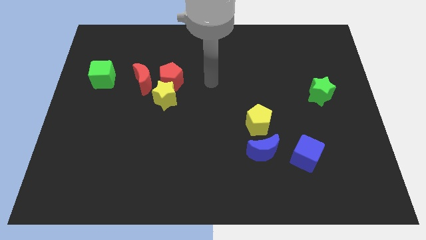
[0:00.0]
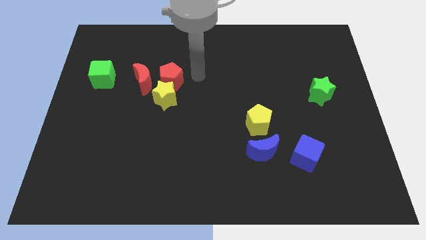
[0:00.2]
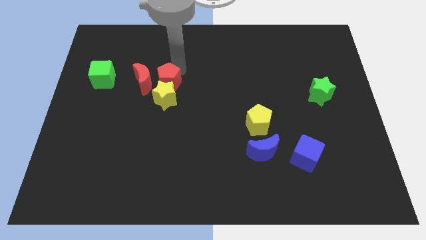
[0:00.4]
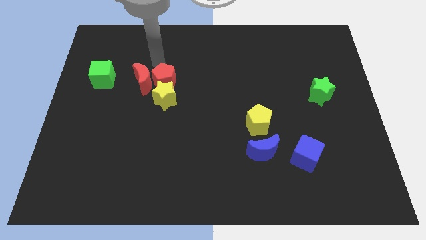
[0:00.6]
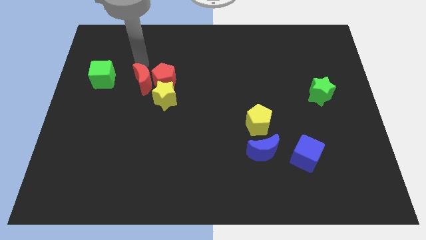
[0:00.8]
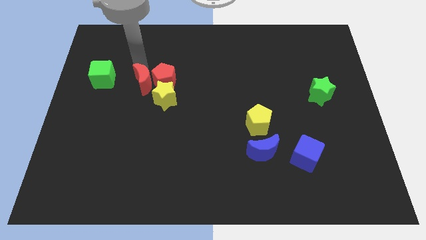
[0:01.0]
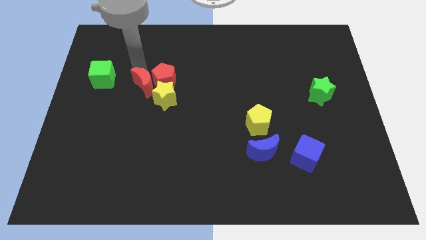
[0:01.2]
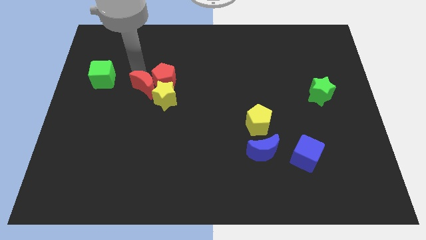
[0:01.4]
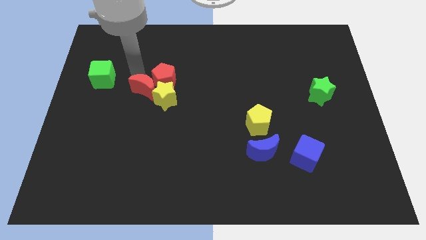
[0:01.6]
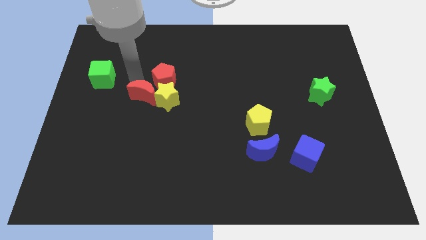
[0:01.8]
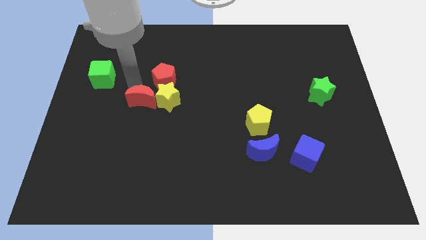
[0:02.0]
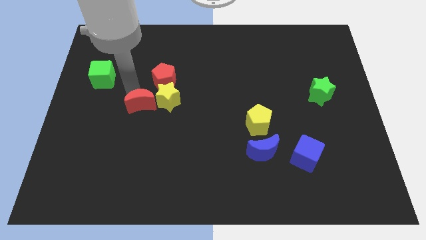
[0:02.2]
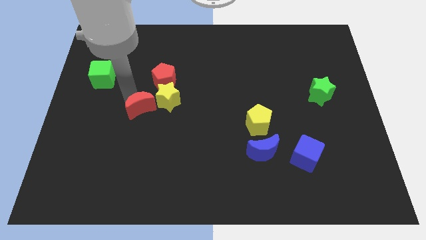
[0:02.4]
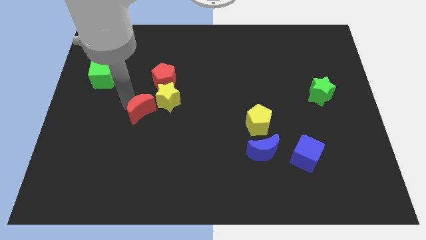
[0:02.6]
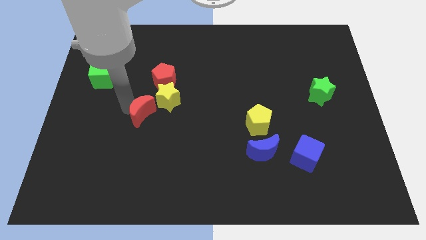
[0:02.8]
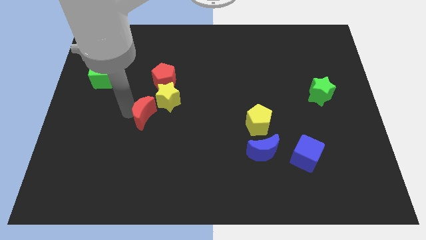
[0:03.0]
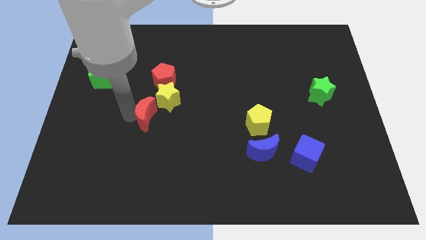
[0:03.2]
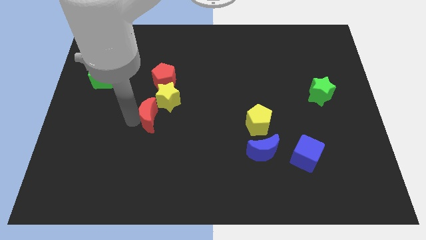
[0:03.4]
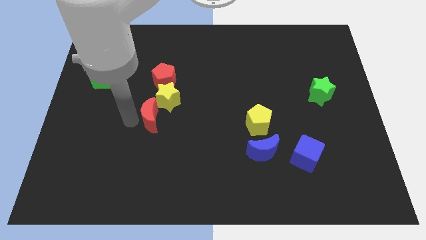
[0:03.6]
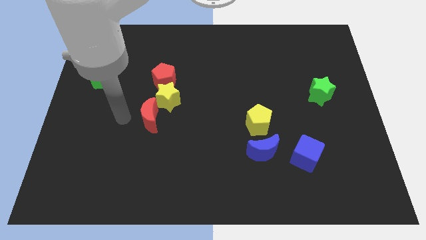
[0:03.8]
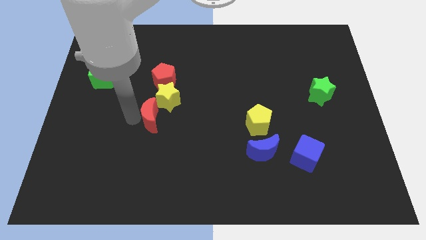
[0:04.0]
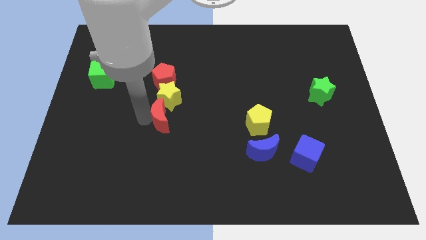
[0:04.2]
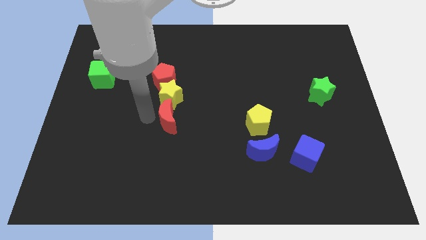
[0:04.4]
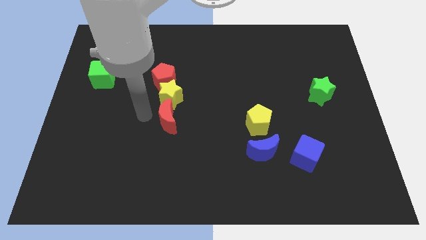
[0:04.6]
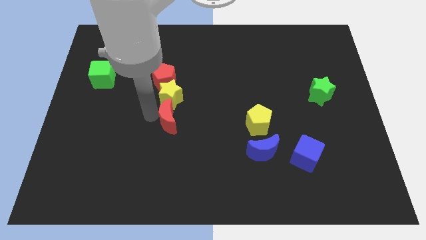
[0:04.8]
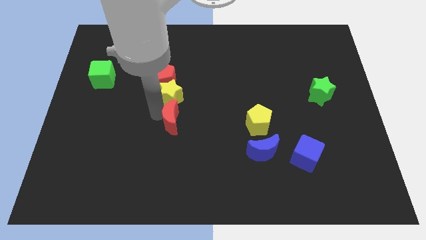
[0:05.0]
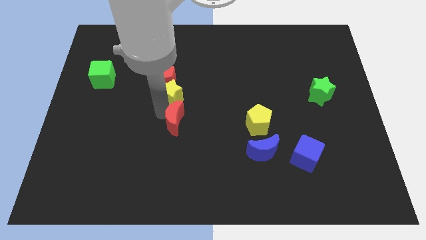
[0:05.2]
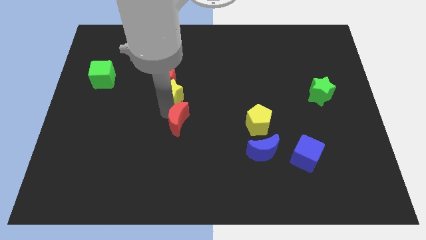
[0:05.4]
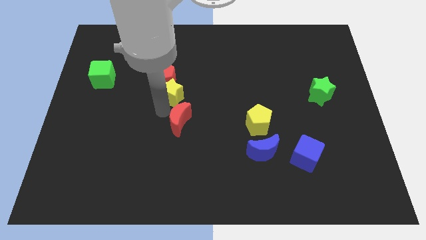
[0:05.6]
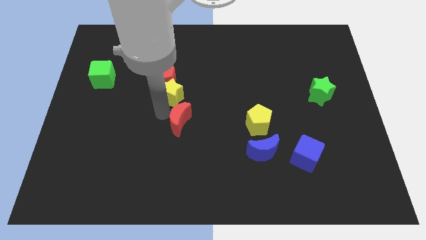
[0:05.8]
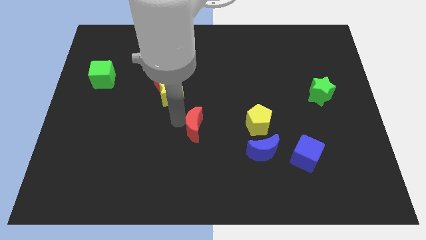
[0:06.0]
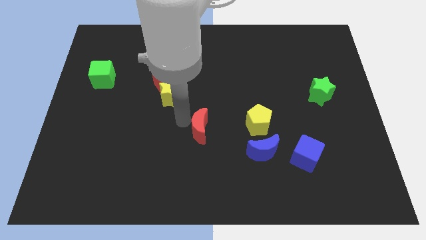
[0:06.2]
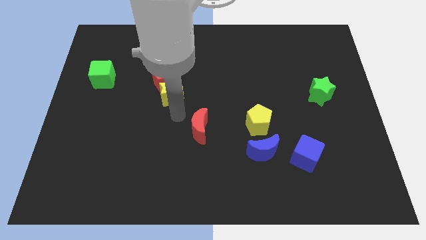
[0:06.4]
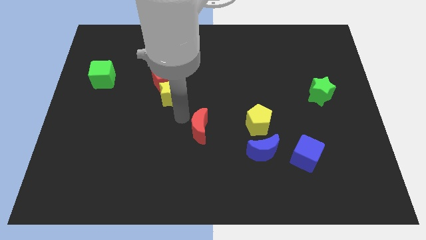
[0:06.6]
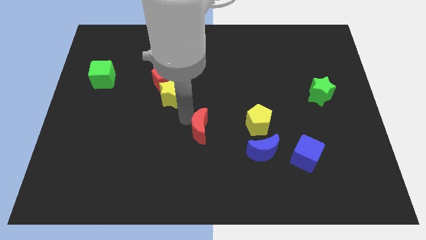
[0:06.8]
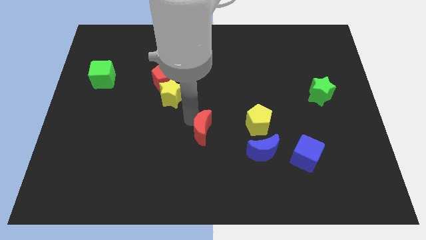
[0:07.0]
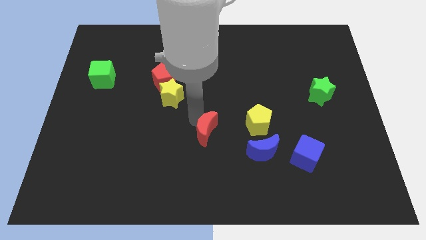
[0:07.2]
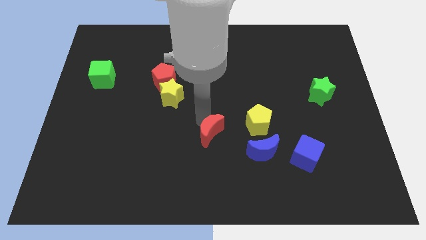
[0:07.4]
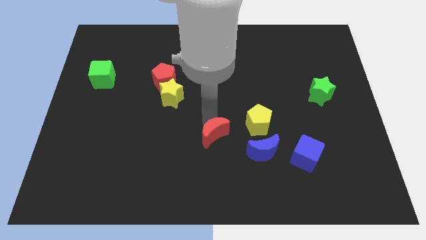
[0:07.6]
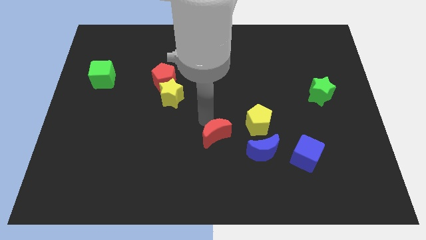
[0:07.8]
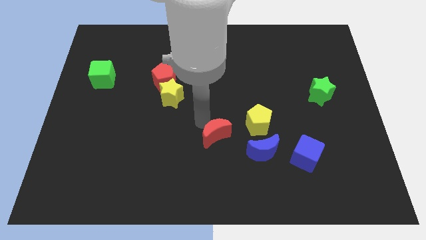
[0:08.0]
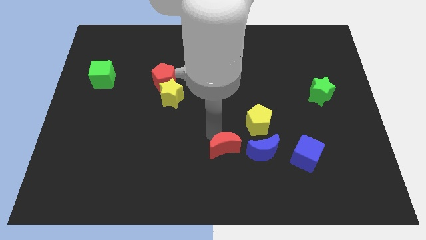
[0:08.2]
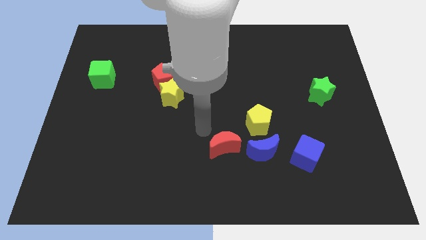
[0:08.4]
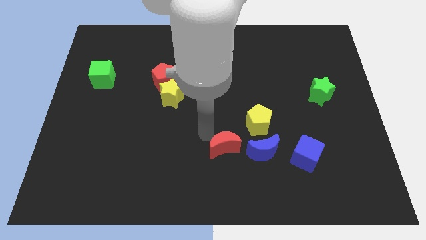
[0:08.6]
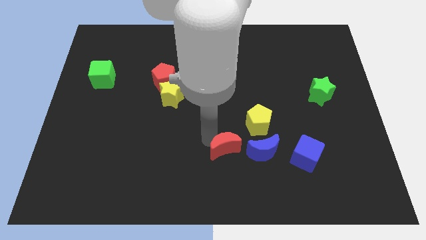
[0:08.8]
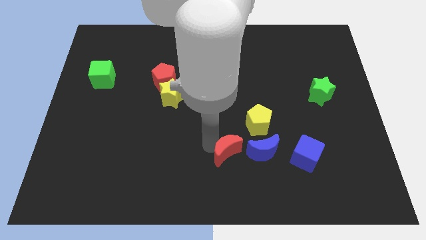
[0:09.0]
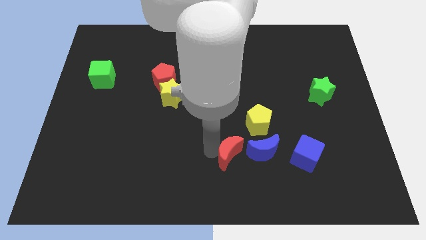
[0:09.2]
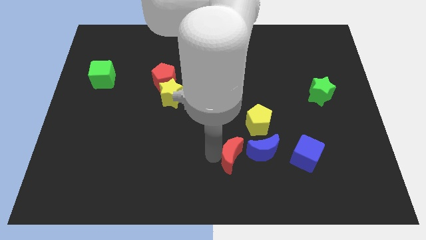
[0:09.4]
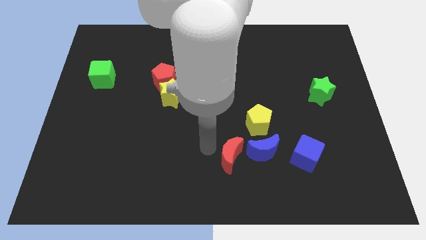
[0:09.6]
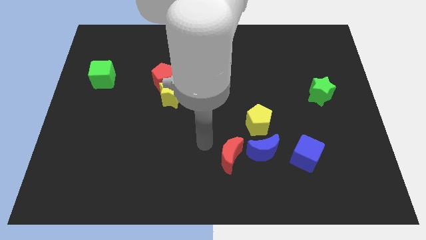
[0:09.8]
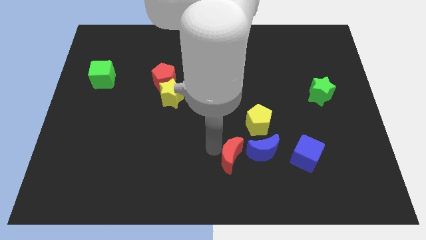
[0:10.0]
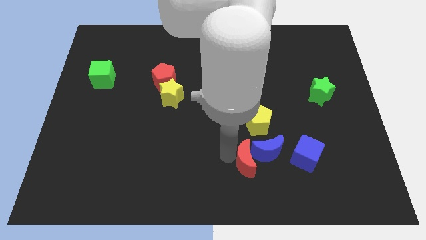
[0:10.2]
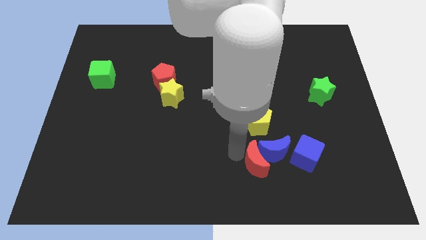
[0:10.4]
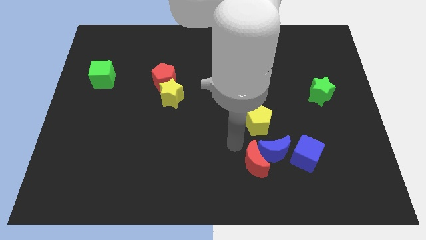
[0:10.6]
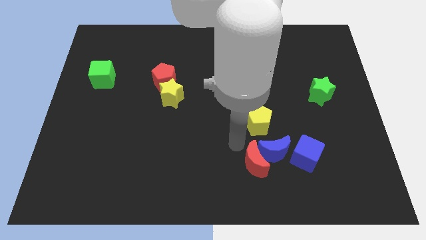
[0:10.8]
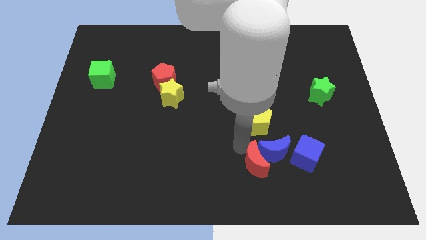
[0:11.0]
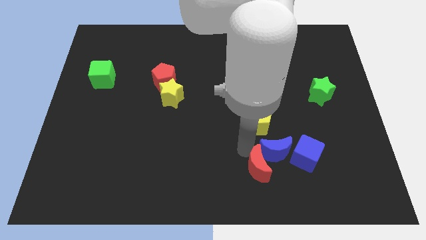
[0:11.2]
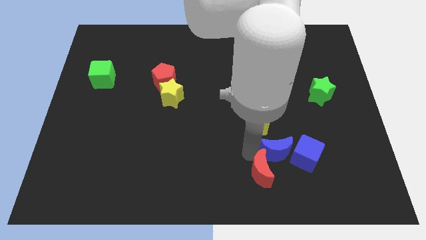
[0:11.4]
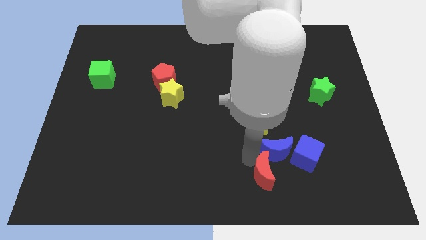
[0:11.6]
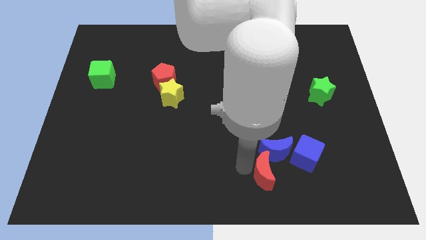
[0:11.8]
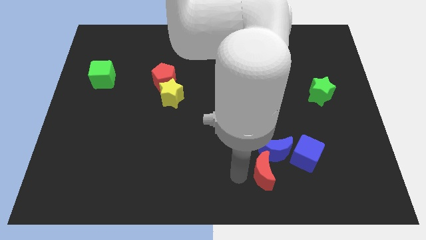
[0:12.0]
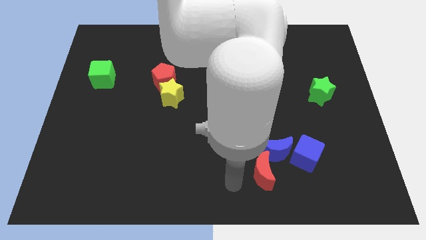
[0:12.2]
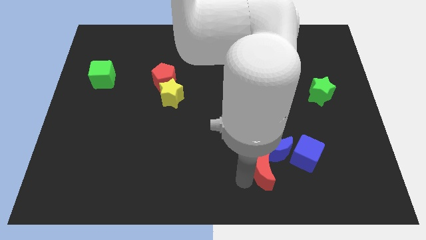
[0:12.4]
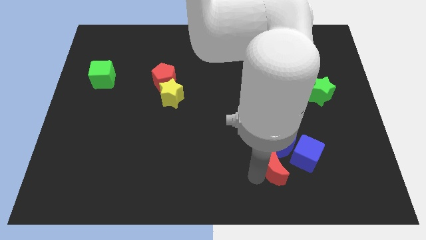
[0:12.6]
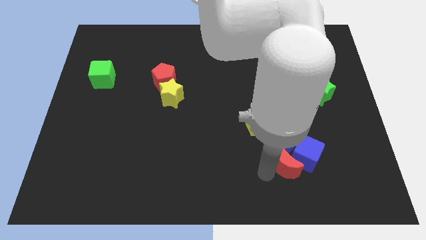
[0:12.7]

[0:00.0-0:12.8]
put the red moon next to the blue cube

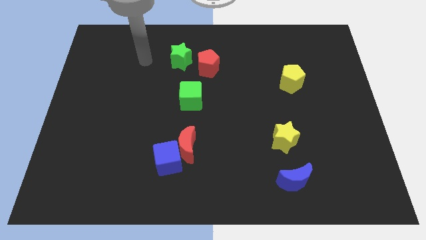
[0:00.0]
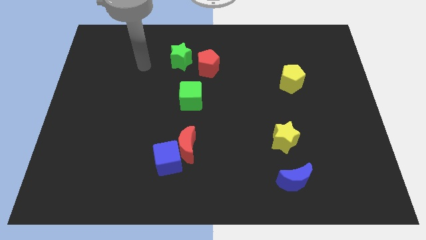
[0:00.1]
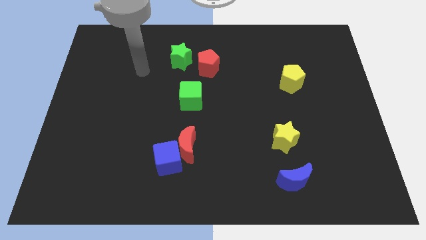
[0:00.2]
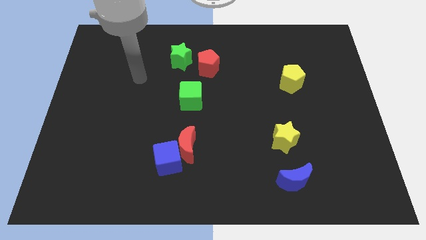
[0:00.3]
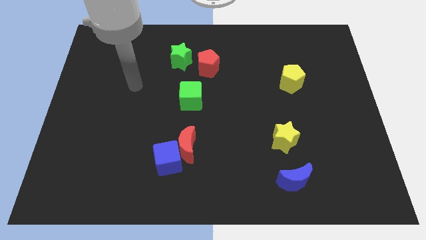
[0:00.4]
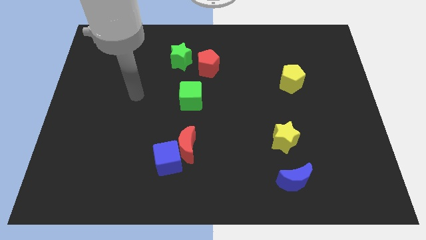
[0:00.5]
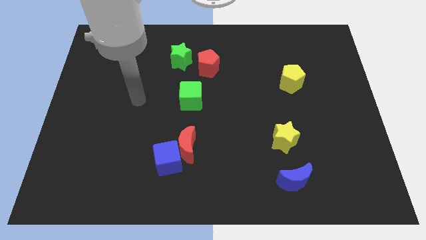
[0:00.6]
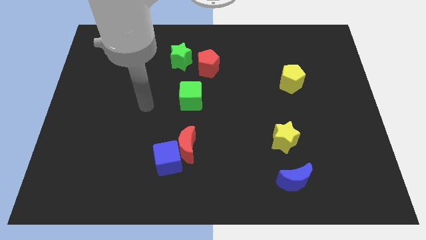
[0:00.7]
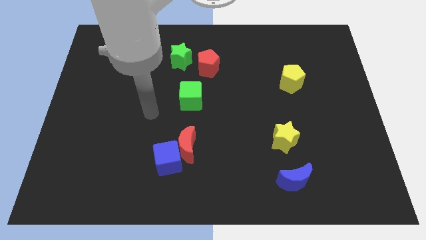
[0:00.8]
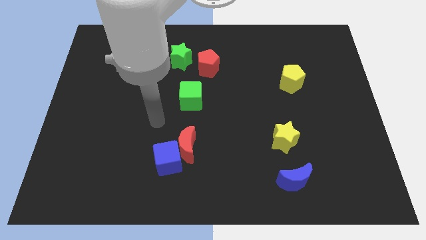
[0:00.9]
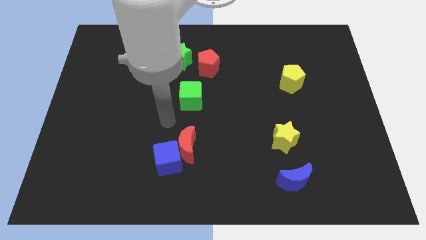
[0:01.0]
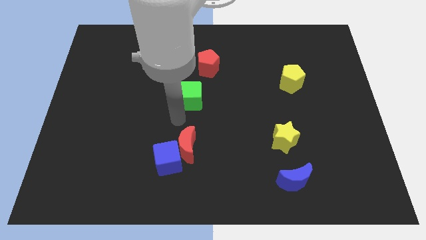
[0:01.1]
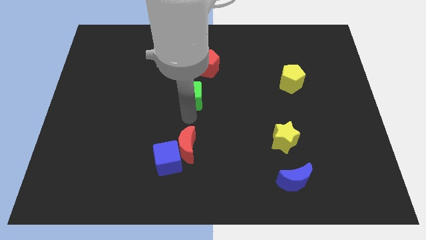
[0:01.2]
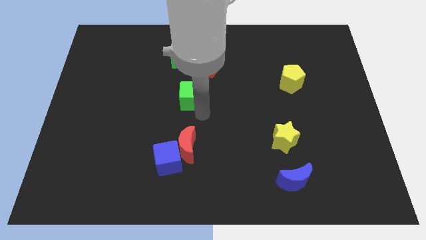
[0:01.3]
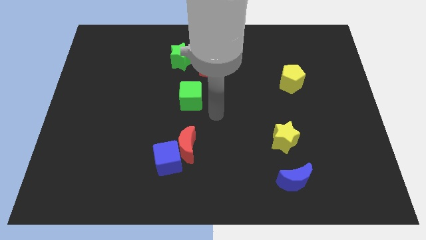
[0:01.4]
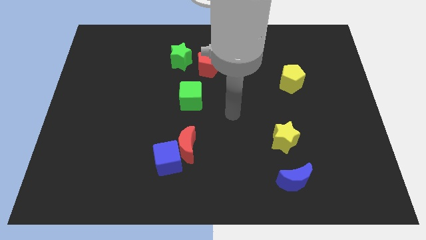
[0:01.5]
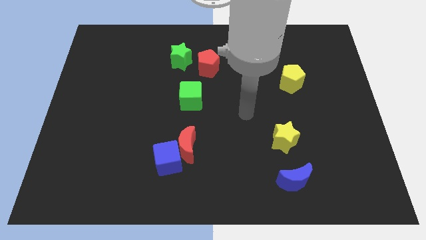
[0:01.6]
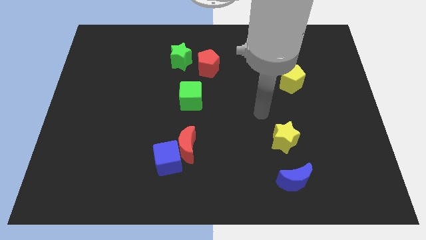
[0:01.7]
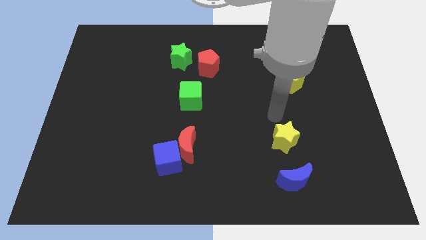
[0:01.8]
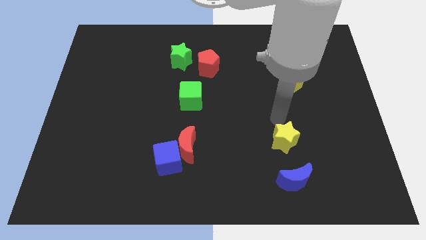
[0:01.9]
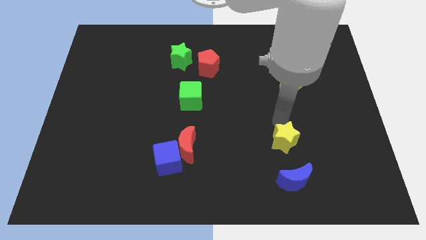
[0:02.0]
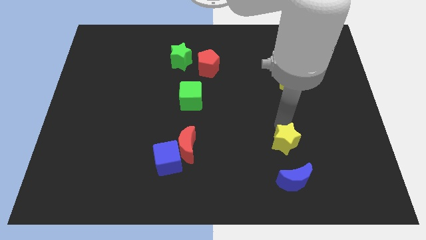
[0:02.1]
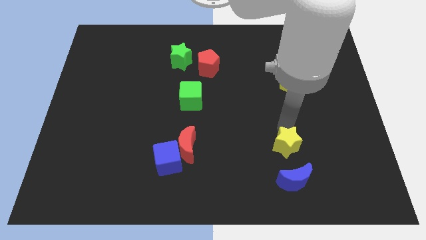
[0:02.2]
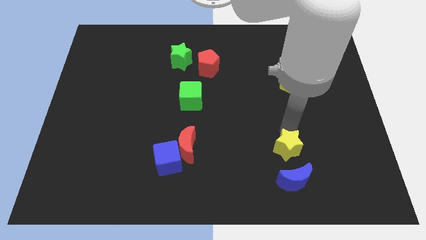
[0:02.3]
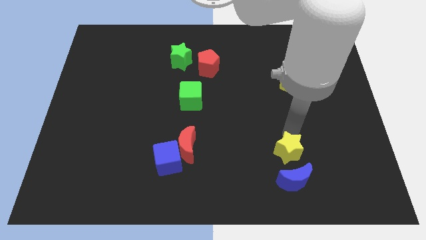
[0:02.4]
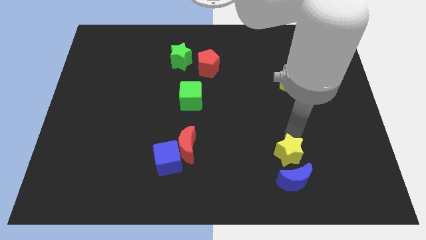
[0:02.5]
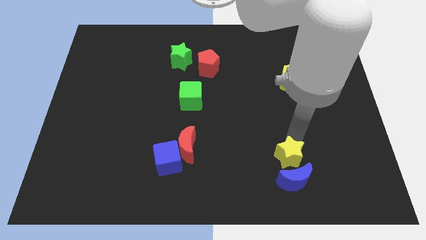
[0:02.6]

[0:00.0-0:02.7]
slide the yellow star next to the blue moon
